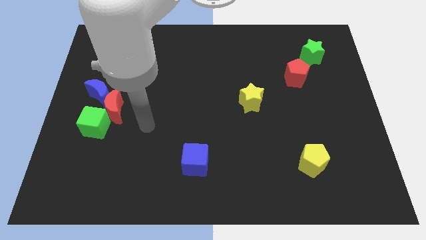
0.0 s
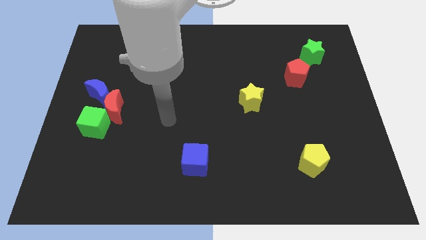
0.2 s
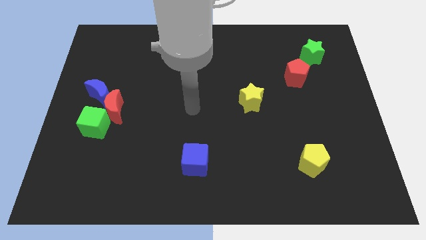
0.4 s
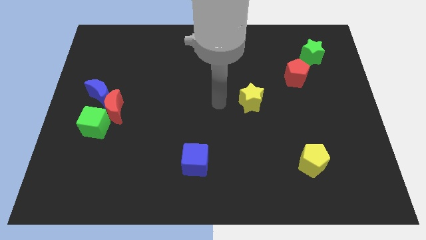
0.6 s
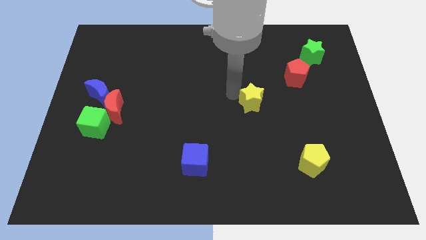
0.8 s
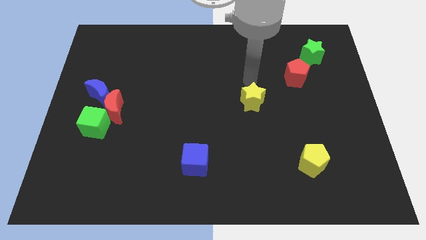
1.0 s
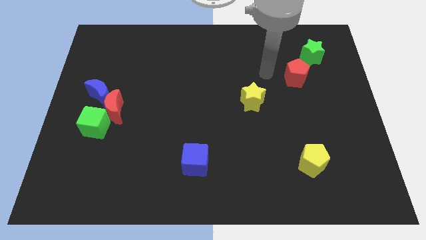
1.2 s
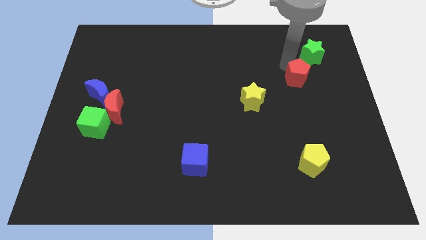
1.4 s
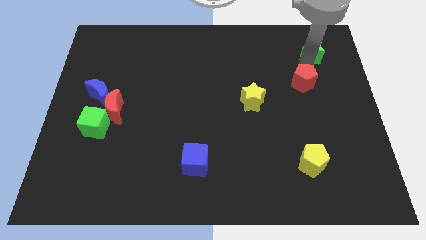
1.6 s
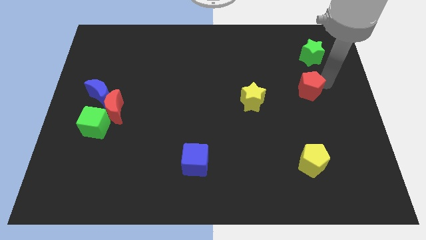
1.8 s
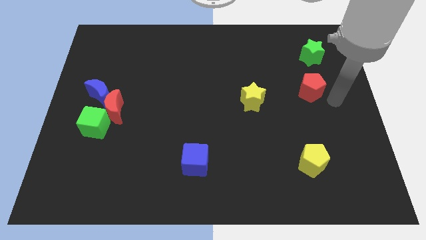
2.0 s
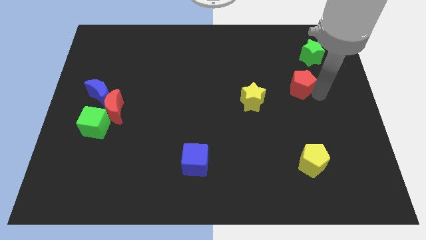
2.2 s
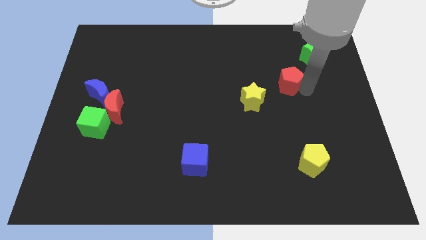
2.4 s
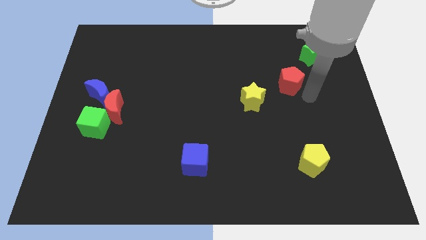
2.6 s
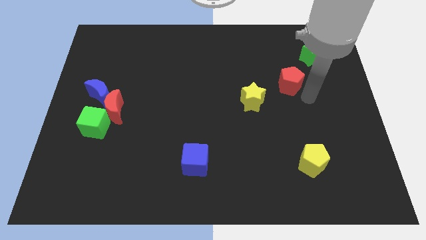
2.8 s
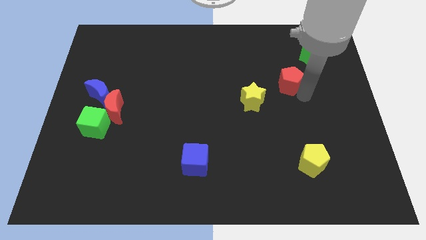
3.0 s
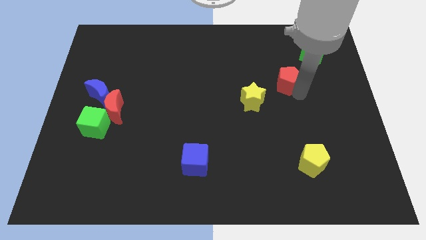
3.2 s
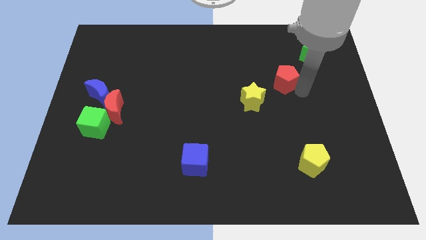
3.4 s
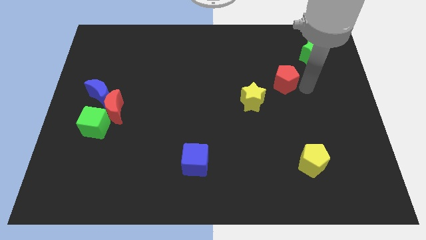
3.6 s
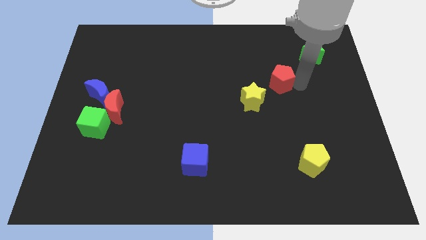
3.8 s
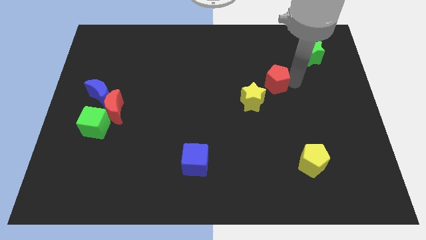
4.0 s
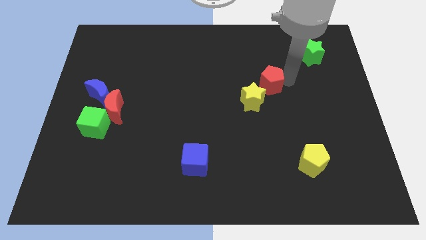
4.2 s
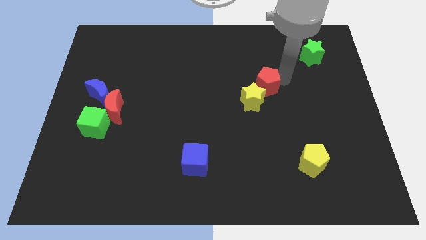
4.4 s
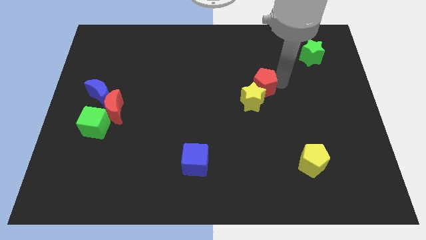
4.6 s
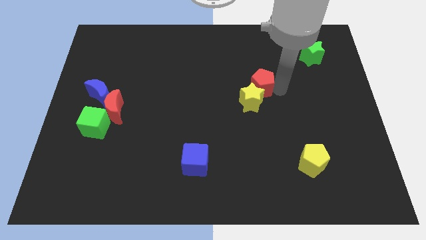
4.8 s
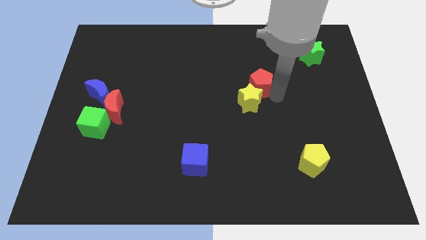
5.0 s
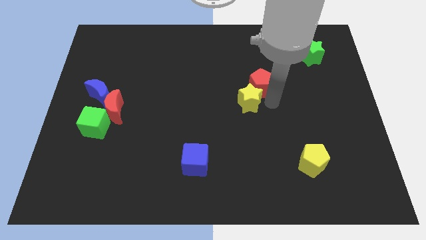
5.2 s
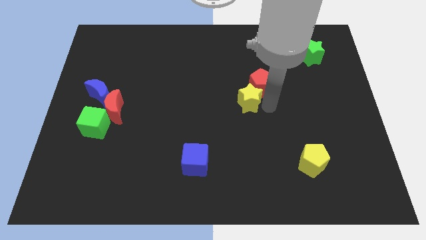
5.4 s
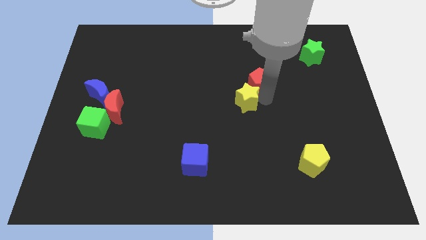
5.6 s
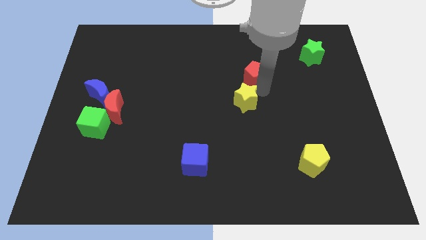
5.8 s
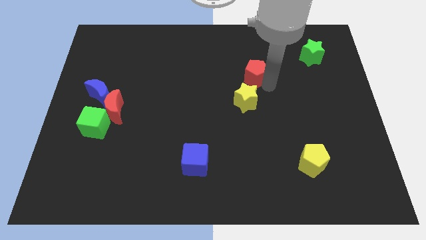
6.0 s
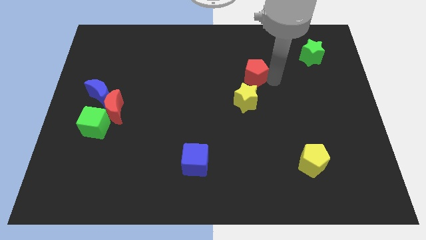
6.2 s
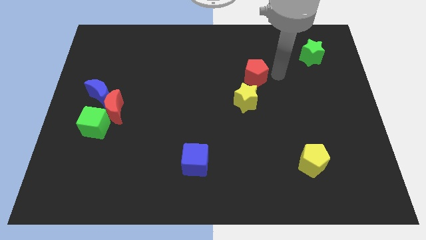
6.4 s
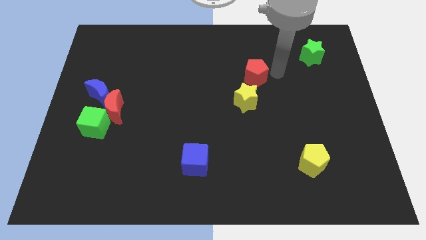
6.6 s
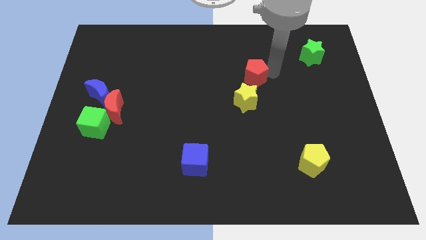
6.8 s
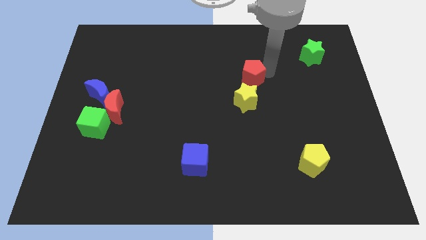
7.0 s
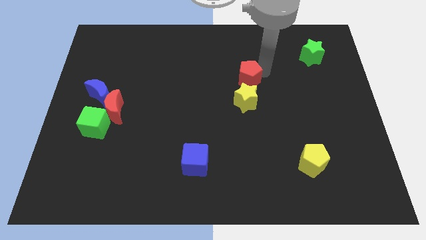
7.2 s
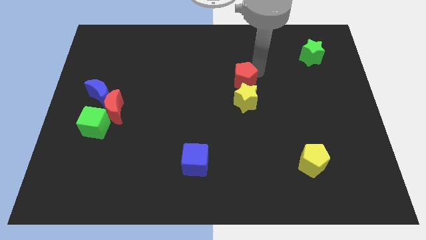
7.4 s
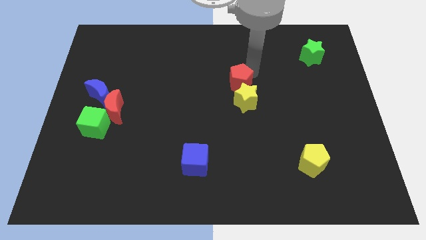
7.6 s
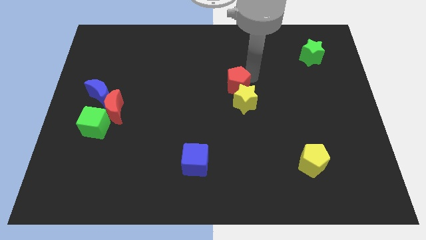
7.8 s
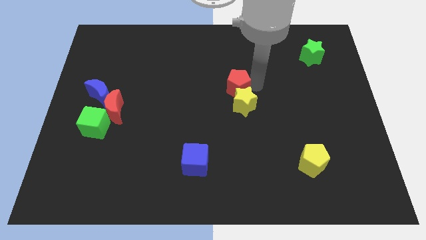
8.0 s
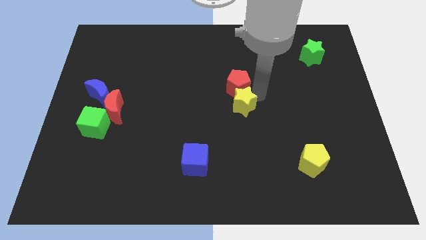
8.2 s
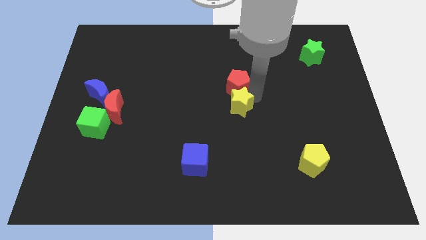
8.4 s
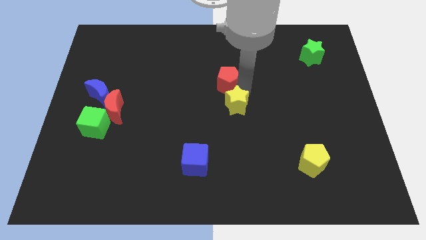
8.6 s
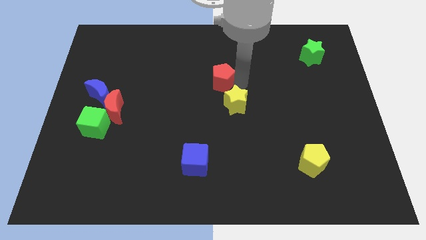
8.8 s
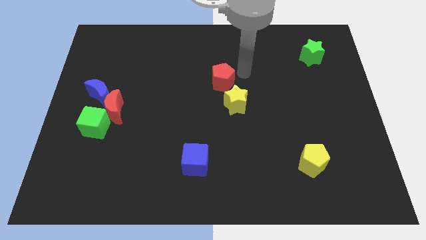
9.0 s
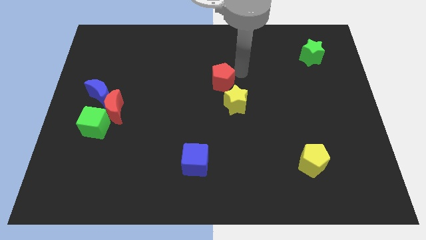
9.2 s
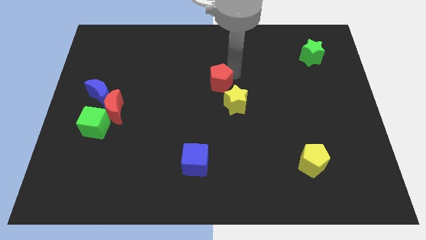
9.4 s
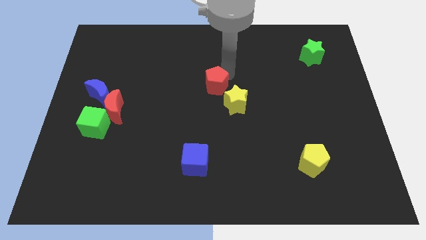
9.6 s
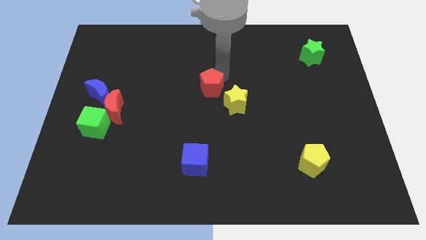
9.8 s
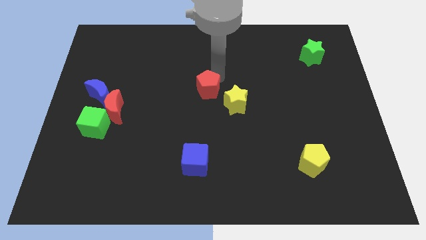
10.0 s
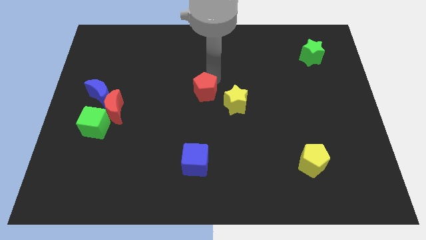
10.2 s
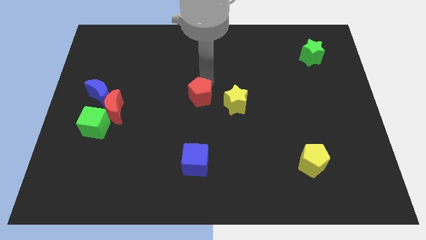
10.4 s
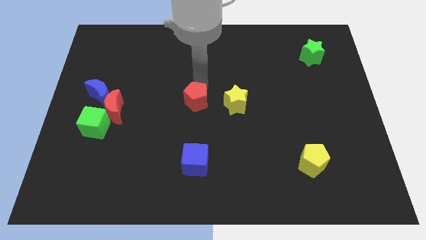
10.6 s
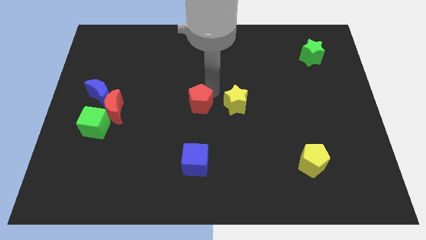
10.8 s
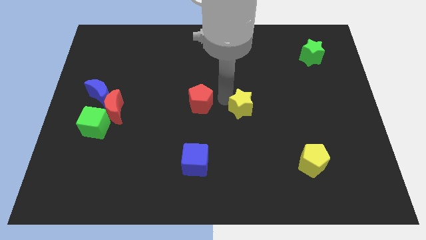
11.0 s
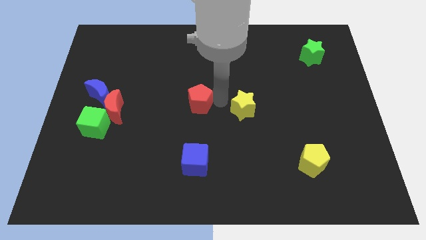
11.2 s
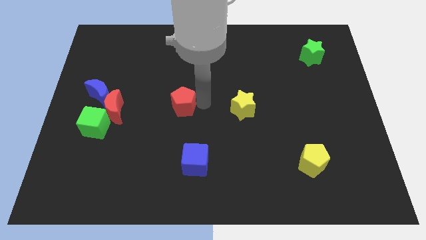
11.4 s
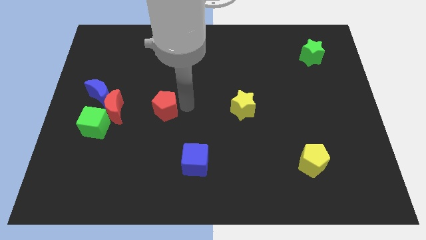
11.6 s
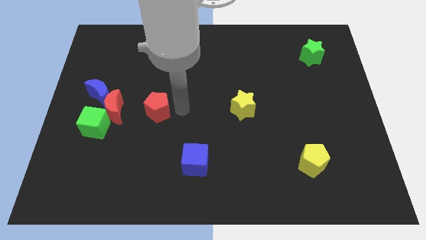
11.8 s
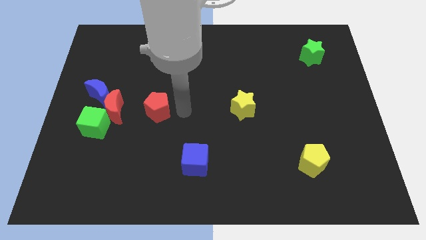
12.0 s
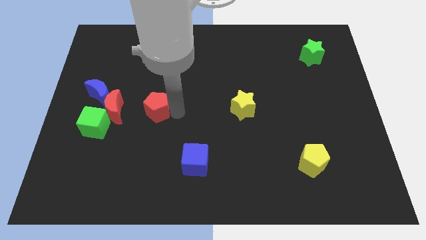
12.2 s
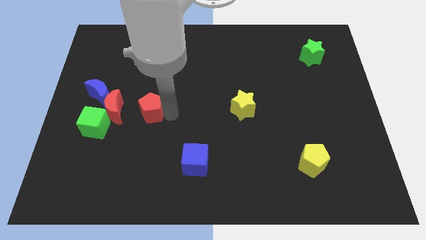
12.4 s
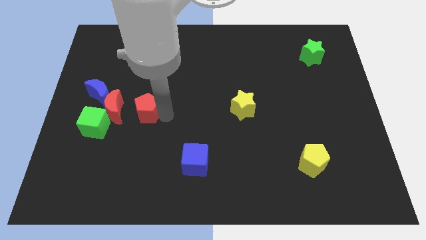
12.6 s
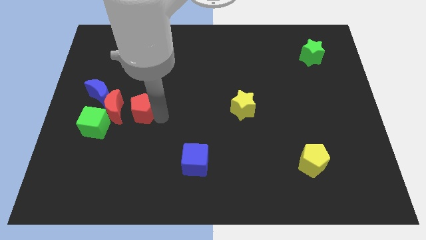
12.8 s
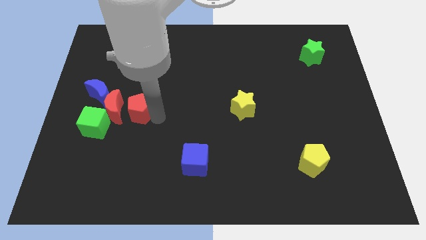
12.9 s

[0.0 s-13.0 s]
put the red pentagon to the red moon
